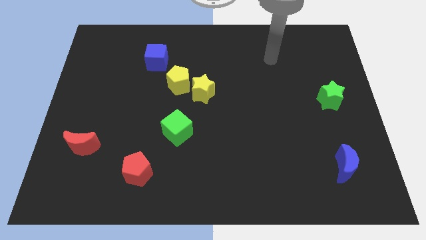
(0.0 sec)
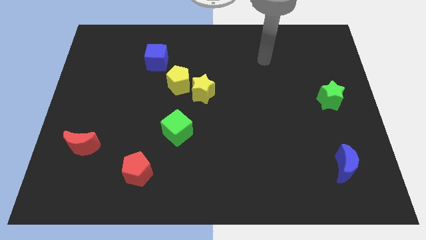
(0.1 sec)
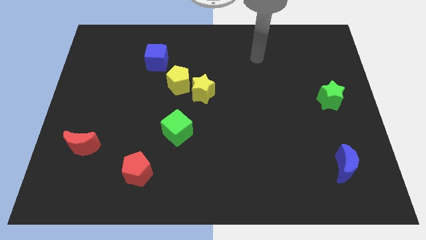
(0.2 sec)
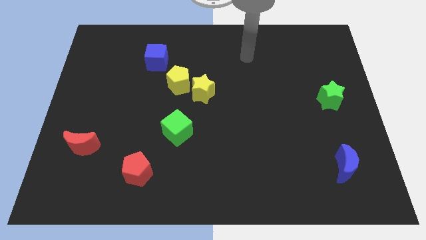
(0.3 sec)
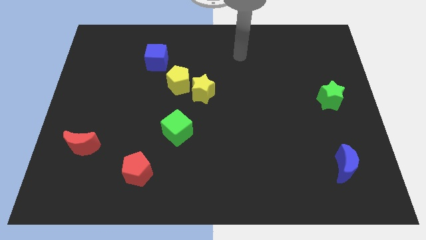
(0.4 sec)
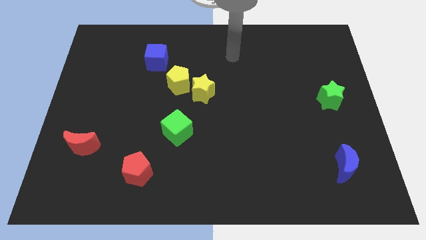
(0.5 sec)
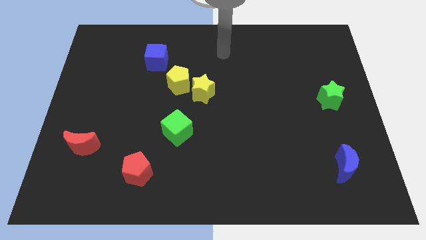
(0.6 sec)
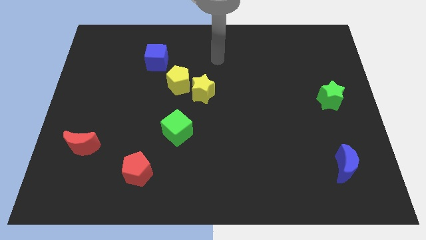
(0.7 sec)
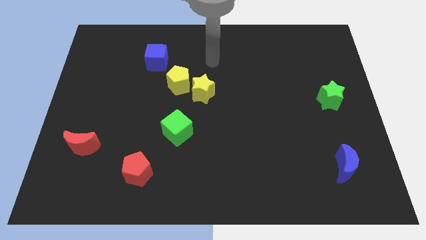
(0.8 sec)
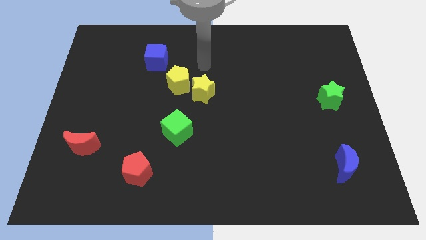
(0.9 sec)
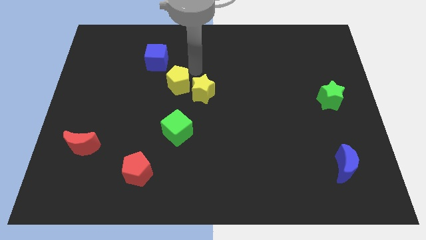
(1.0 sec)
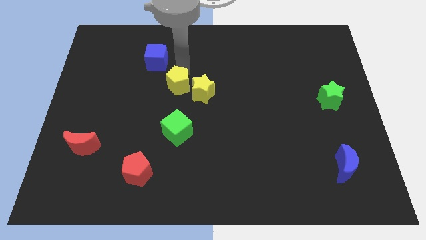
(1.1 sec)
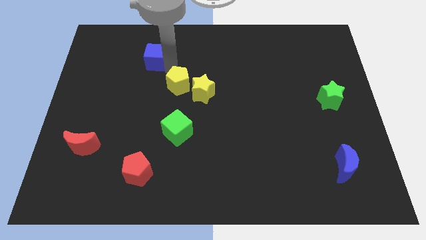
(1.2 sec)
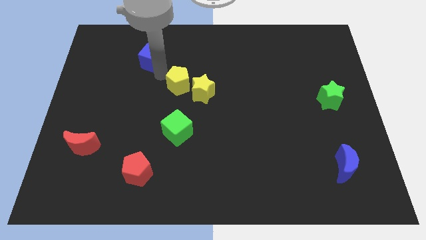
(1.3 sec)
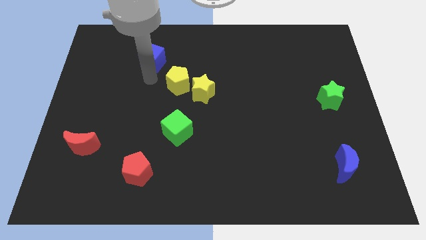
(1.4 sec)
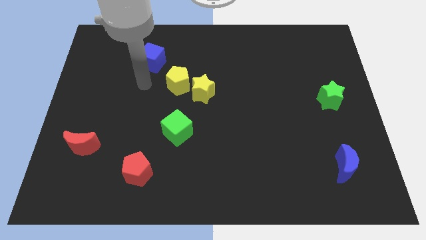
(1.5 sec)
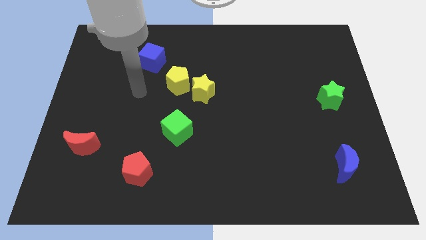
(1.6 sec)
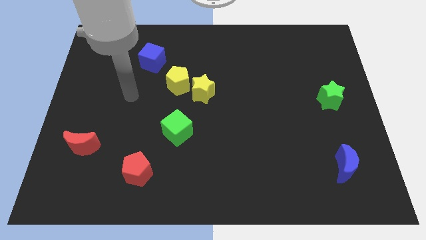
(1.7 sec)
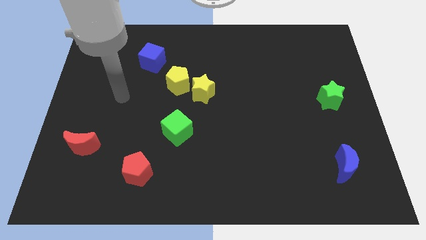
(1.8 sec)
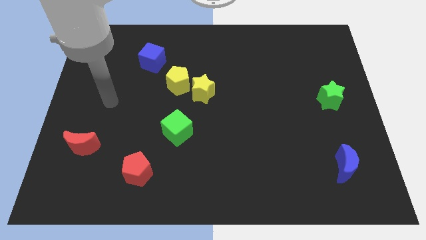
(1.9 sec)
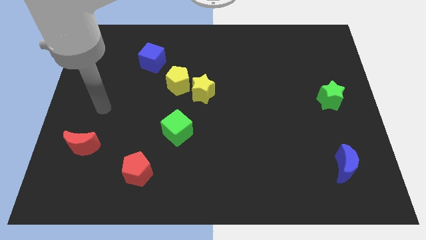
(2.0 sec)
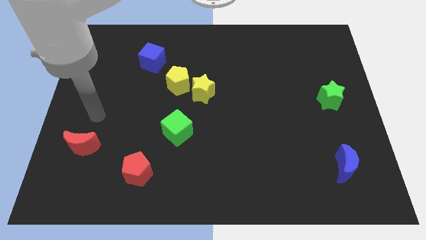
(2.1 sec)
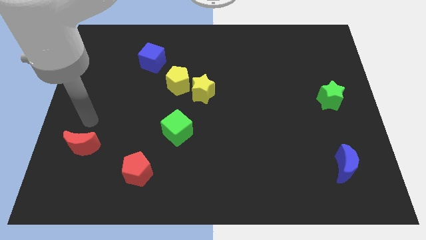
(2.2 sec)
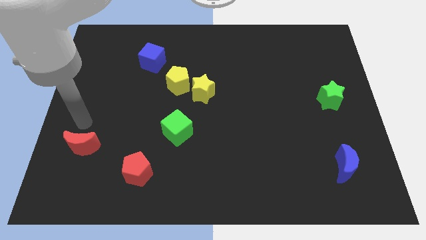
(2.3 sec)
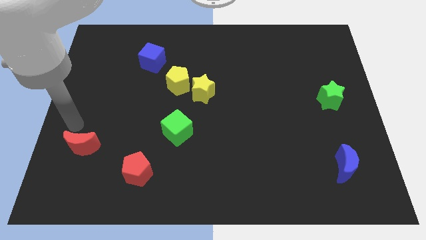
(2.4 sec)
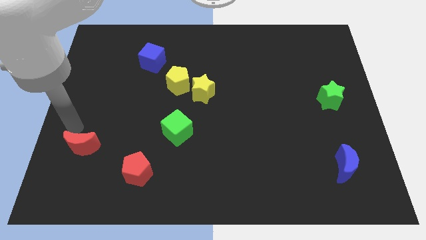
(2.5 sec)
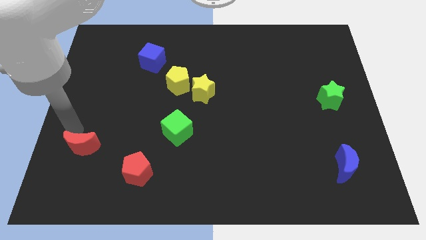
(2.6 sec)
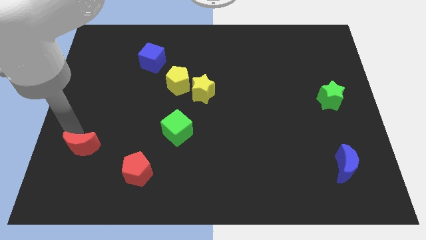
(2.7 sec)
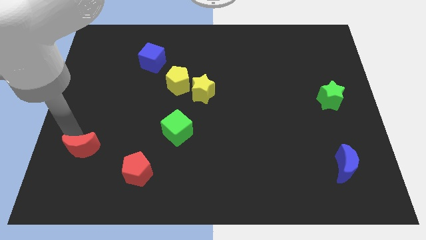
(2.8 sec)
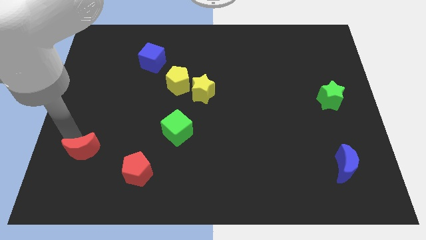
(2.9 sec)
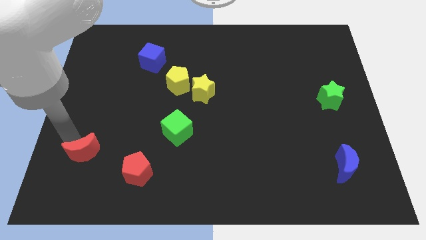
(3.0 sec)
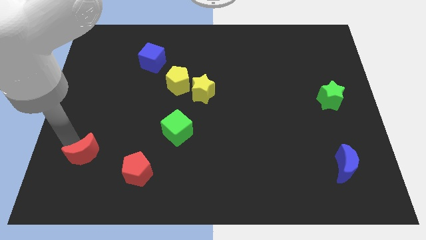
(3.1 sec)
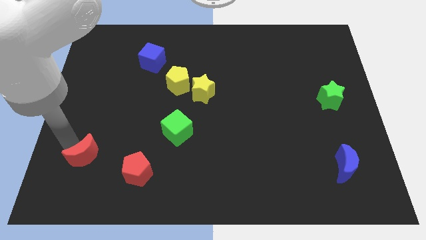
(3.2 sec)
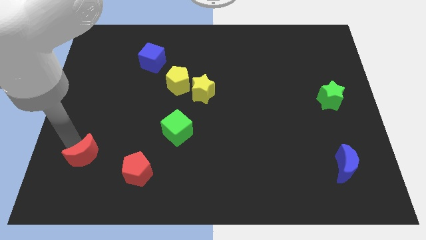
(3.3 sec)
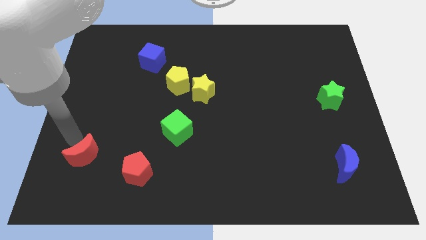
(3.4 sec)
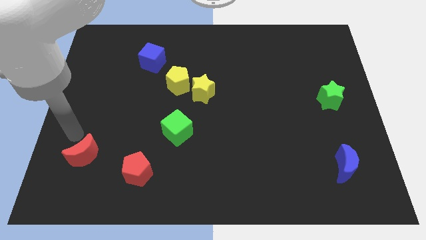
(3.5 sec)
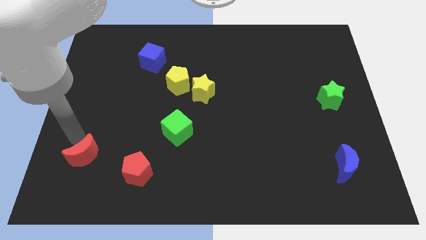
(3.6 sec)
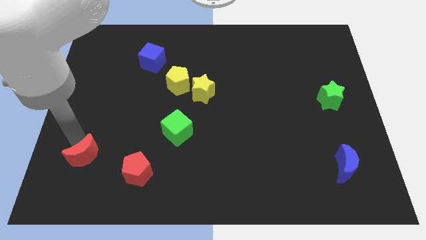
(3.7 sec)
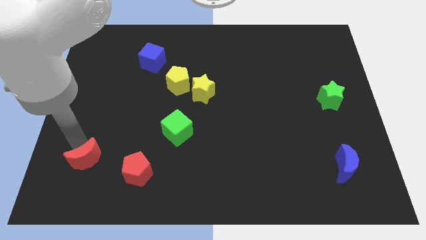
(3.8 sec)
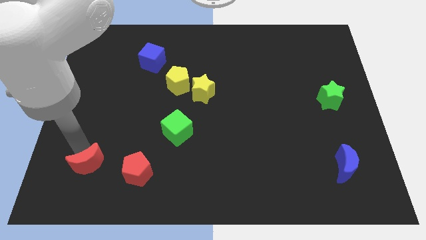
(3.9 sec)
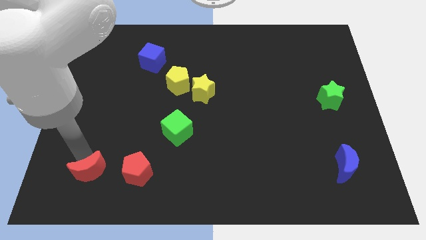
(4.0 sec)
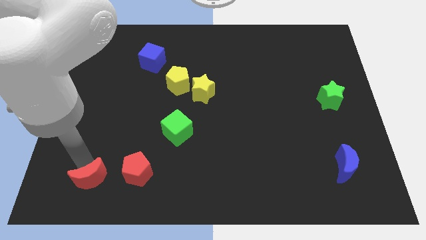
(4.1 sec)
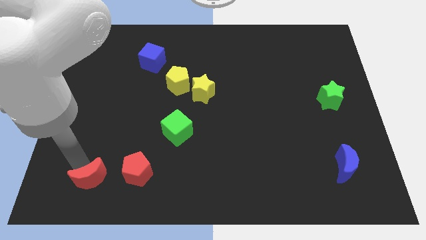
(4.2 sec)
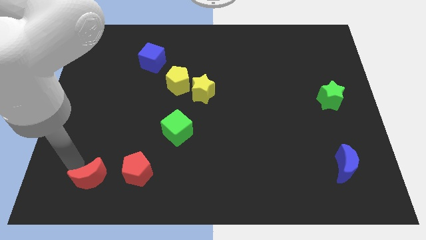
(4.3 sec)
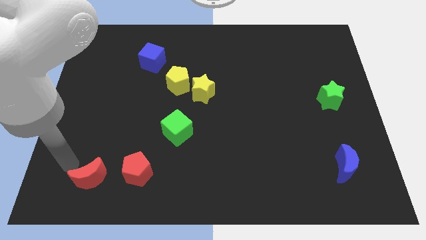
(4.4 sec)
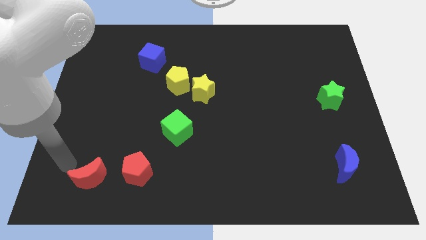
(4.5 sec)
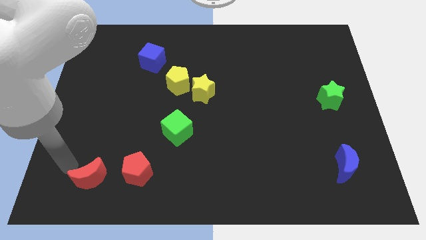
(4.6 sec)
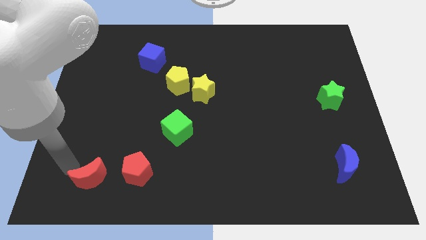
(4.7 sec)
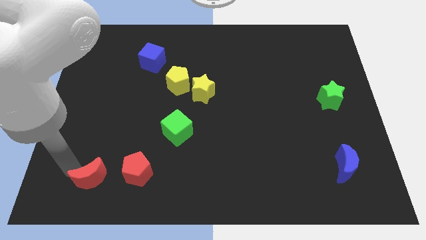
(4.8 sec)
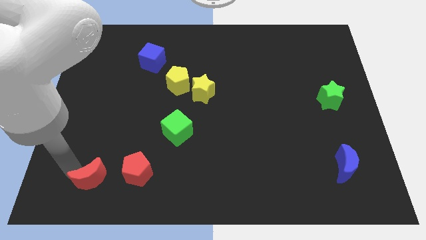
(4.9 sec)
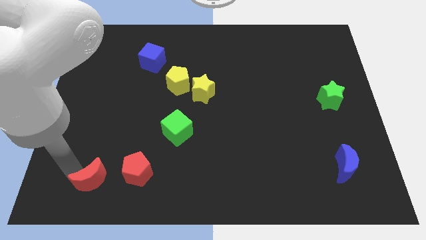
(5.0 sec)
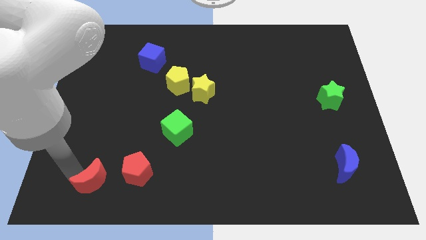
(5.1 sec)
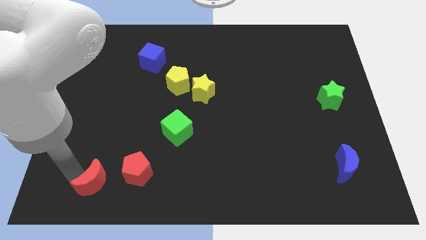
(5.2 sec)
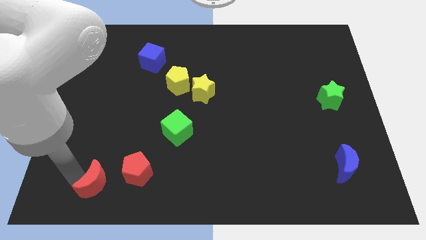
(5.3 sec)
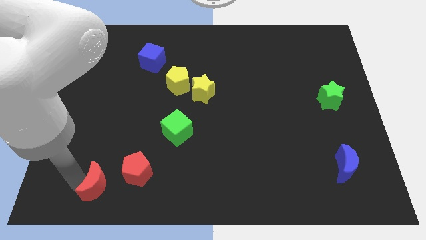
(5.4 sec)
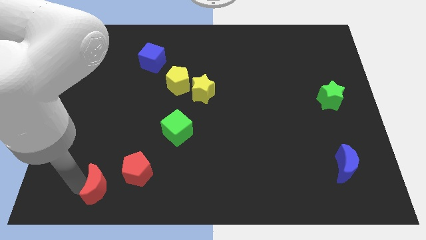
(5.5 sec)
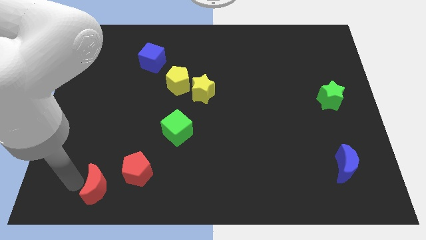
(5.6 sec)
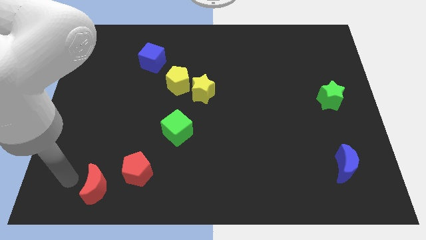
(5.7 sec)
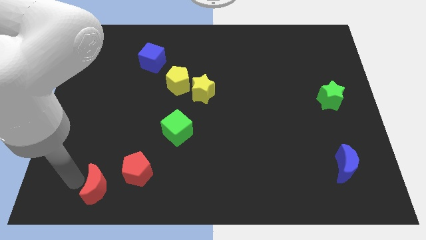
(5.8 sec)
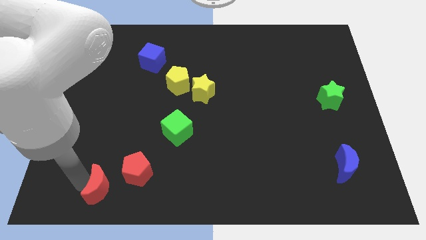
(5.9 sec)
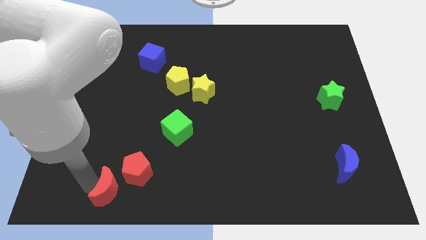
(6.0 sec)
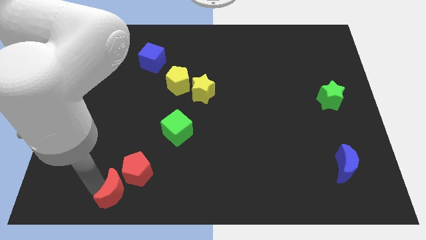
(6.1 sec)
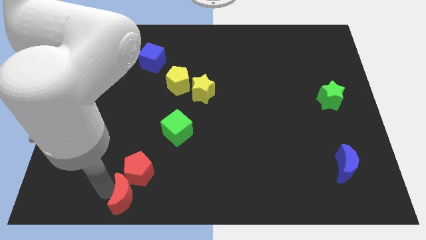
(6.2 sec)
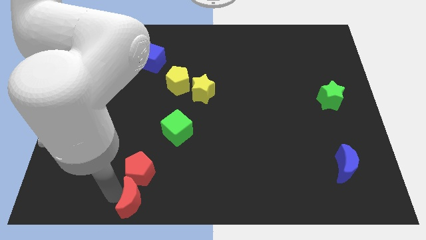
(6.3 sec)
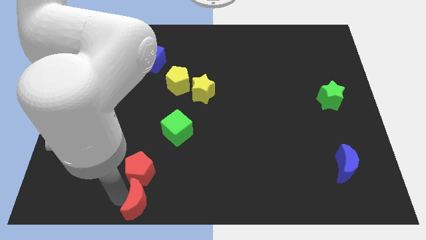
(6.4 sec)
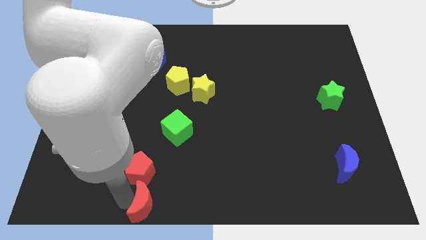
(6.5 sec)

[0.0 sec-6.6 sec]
slide the red moon to the bottom side
